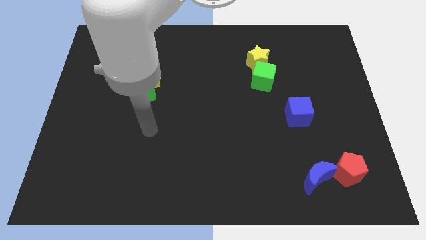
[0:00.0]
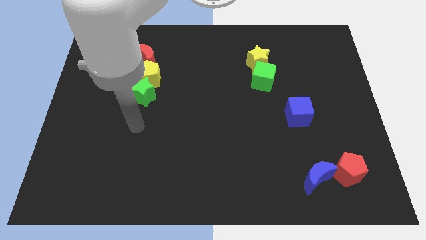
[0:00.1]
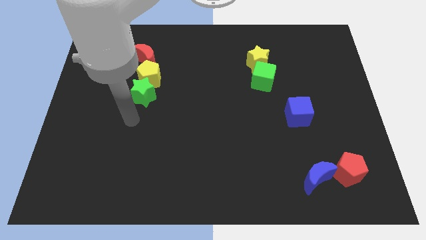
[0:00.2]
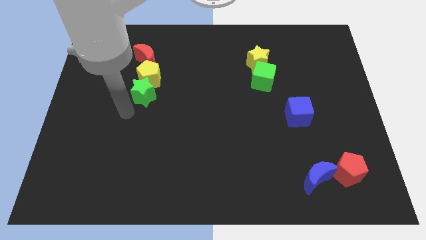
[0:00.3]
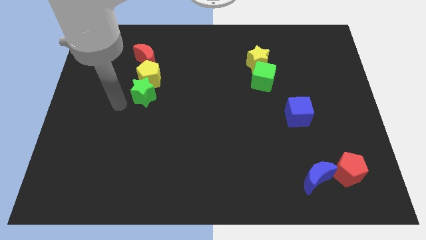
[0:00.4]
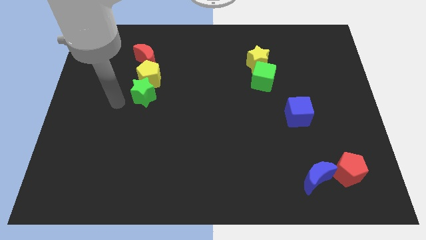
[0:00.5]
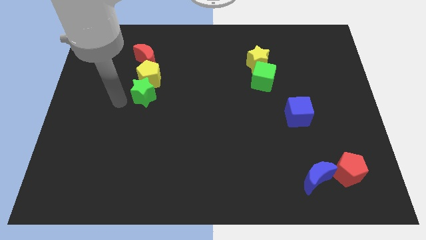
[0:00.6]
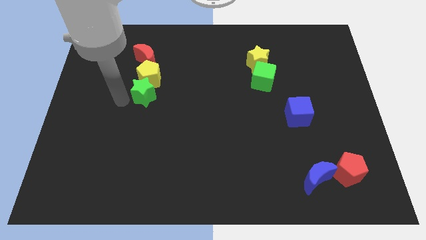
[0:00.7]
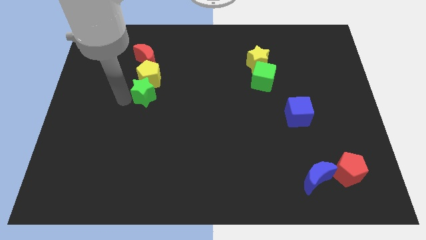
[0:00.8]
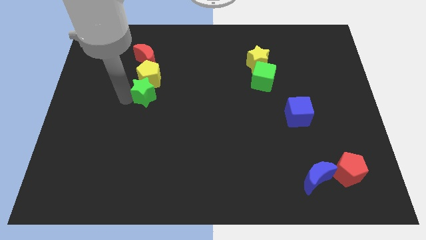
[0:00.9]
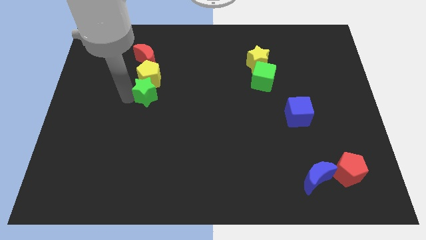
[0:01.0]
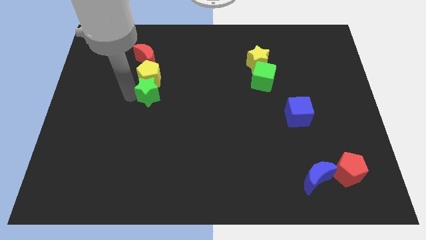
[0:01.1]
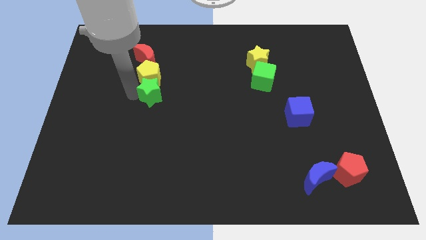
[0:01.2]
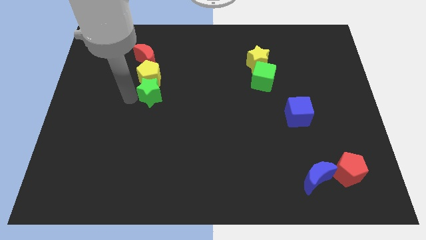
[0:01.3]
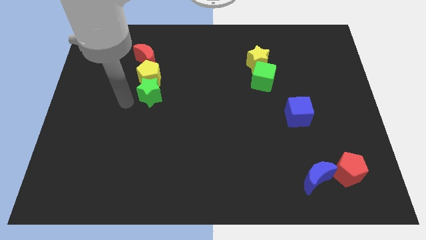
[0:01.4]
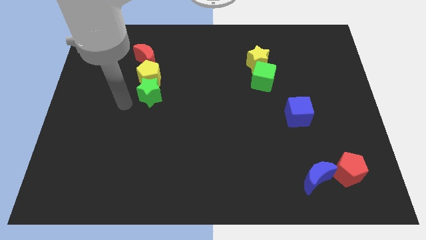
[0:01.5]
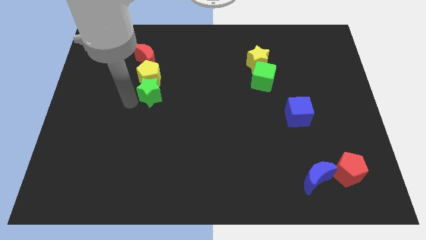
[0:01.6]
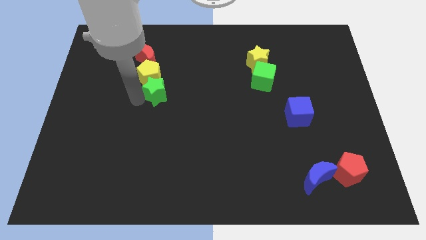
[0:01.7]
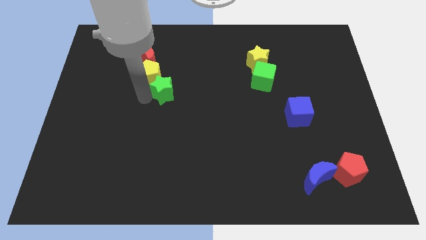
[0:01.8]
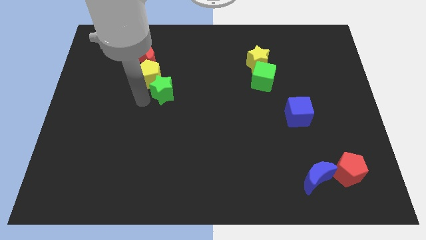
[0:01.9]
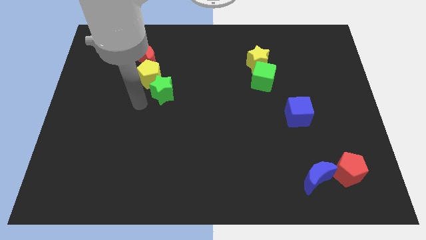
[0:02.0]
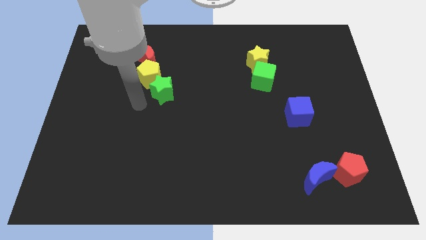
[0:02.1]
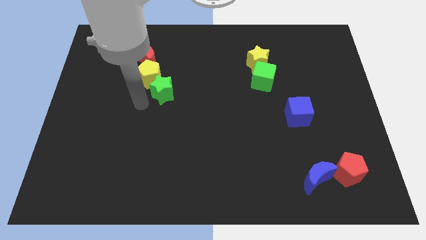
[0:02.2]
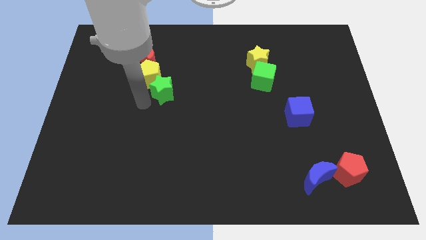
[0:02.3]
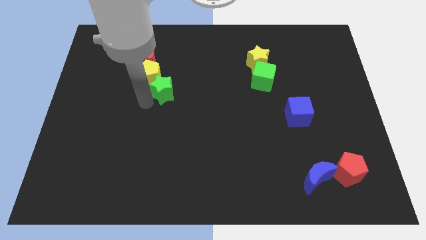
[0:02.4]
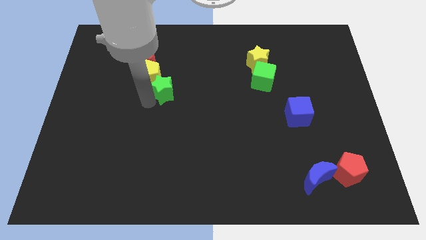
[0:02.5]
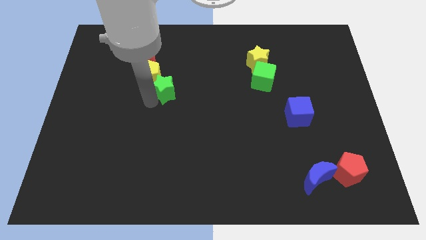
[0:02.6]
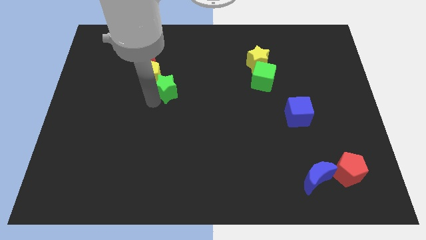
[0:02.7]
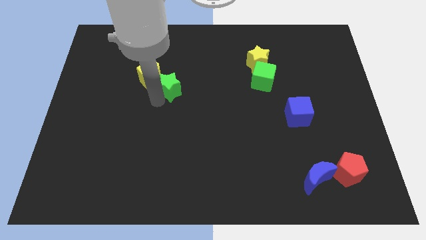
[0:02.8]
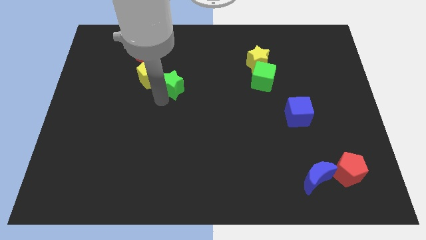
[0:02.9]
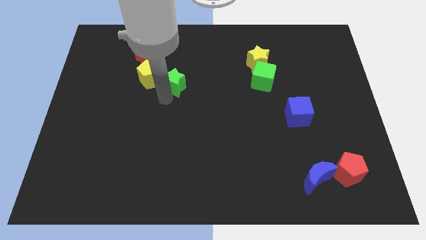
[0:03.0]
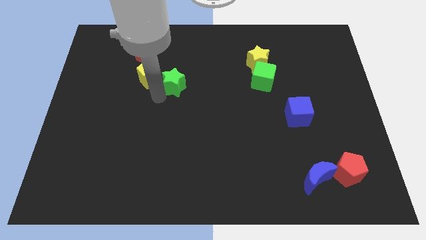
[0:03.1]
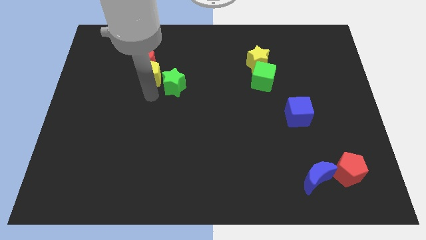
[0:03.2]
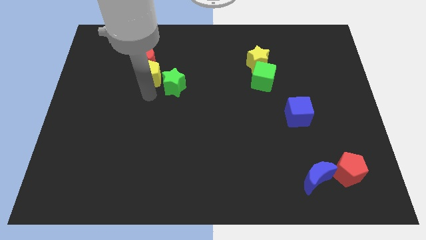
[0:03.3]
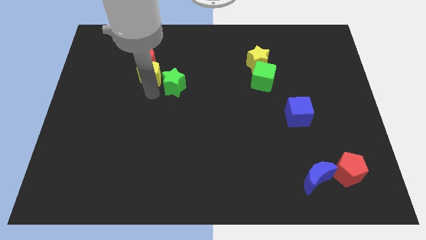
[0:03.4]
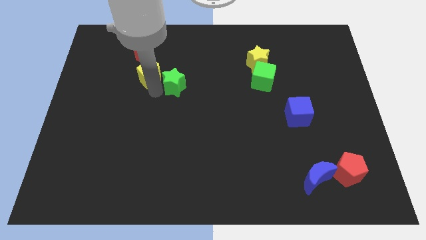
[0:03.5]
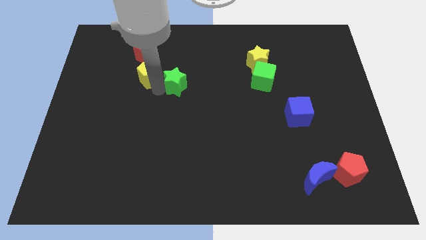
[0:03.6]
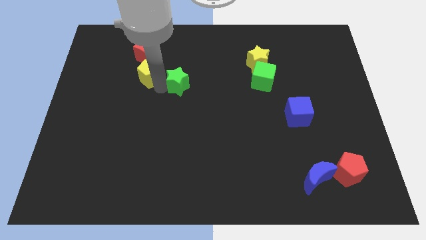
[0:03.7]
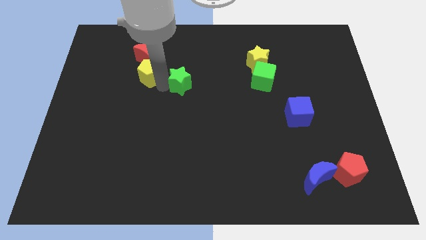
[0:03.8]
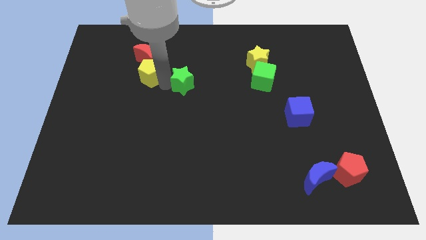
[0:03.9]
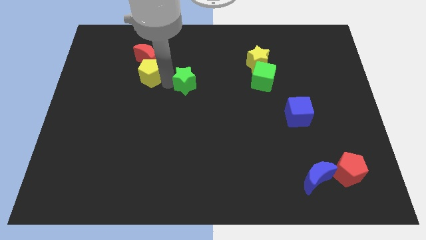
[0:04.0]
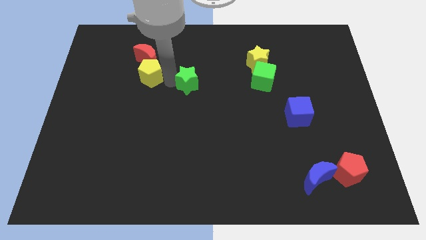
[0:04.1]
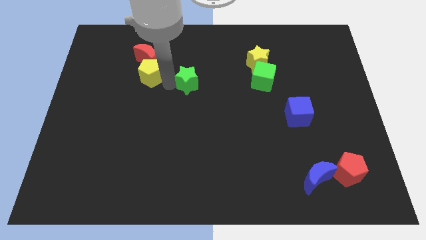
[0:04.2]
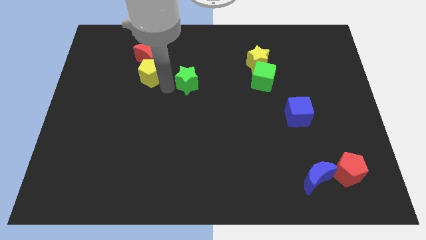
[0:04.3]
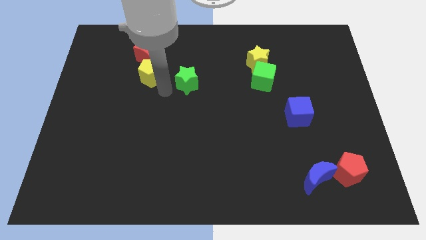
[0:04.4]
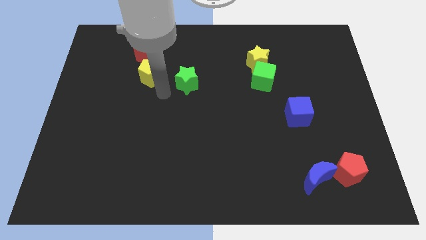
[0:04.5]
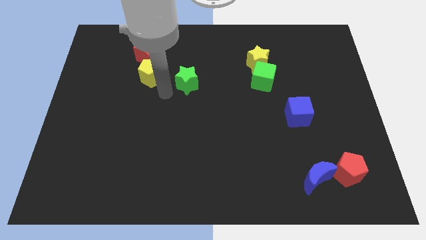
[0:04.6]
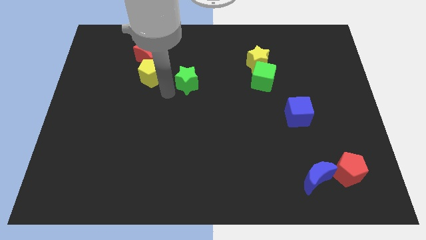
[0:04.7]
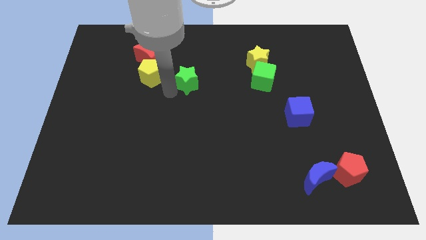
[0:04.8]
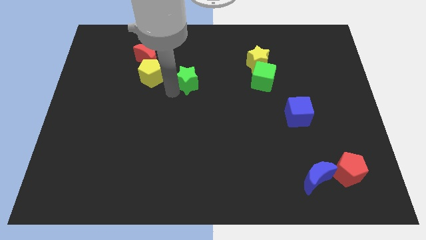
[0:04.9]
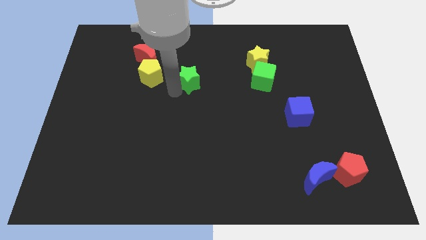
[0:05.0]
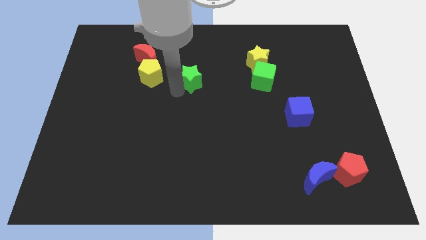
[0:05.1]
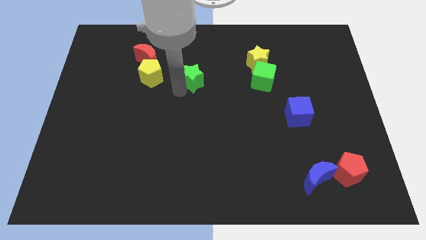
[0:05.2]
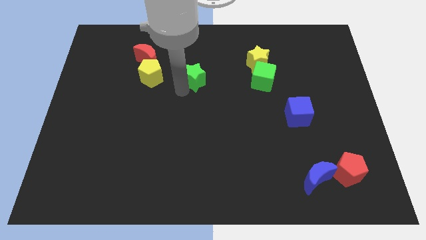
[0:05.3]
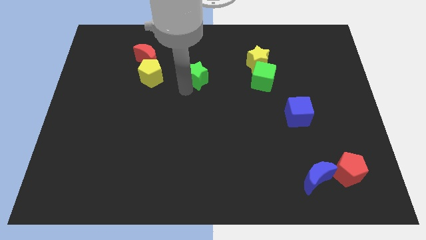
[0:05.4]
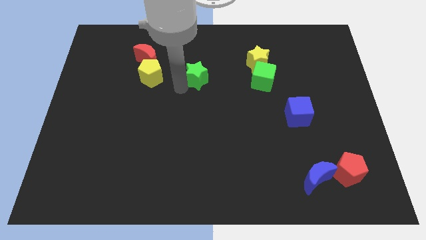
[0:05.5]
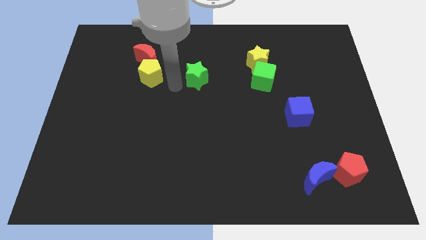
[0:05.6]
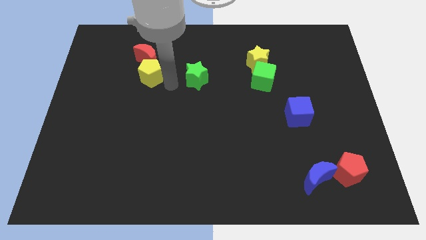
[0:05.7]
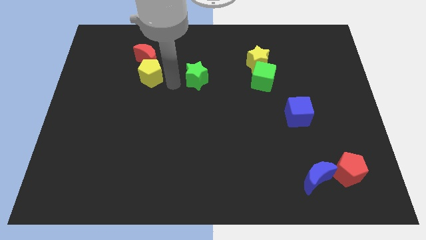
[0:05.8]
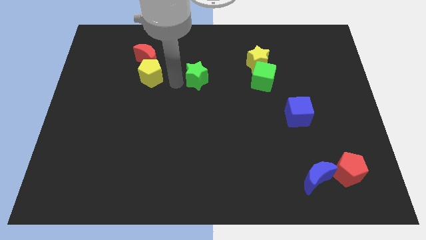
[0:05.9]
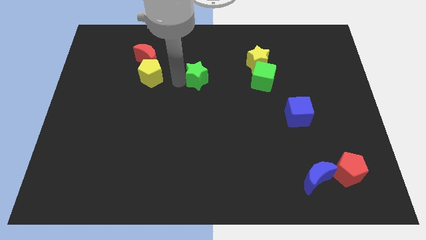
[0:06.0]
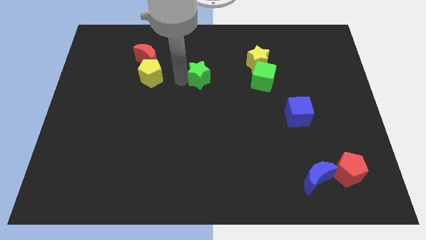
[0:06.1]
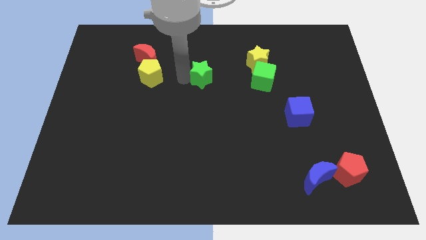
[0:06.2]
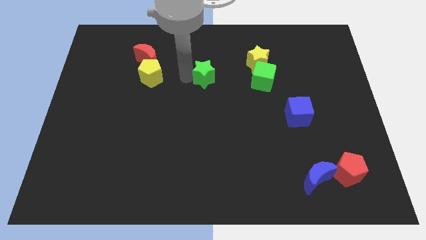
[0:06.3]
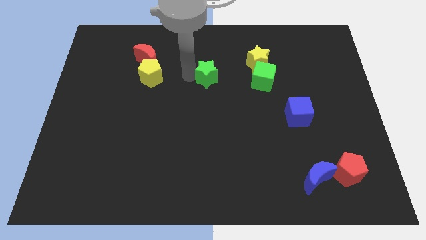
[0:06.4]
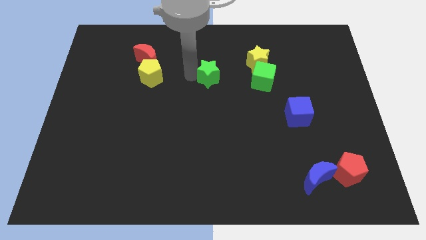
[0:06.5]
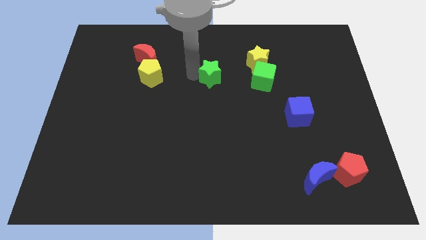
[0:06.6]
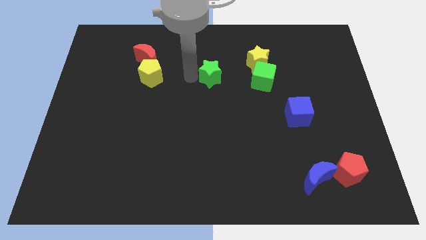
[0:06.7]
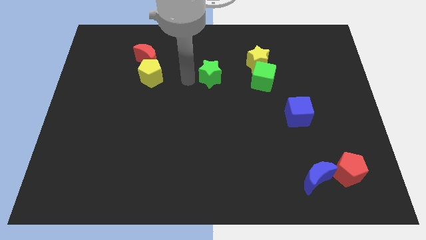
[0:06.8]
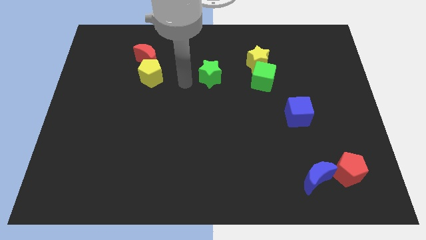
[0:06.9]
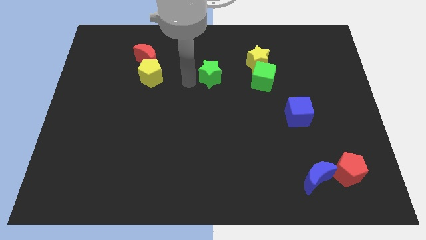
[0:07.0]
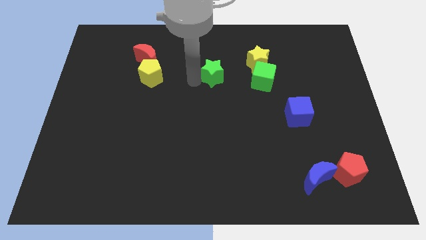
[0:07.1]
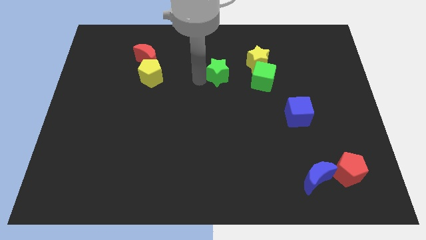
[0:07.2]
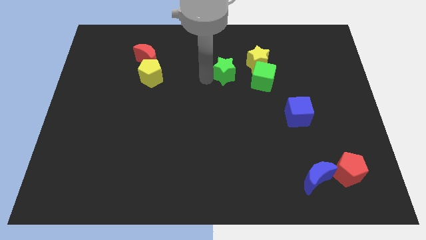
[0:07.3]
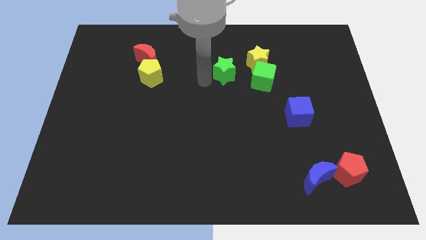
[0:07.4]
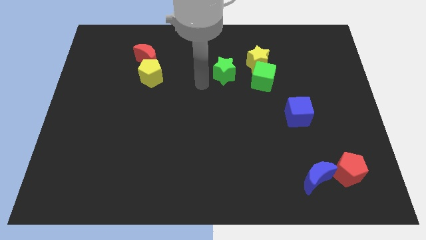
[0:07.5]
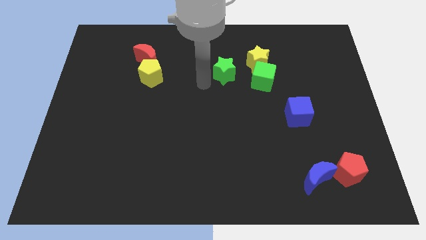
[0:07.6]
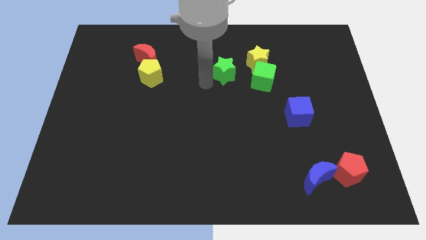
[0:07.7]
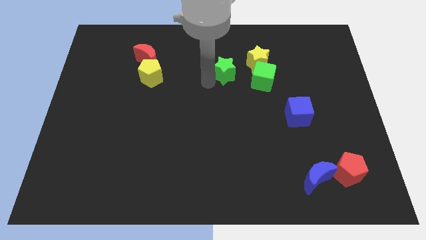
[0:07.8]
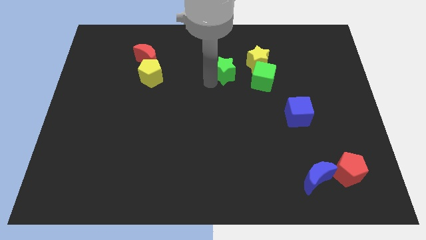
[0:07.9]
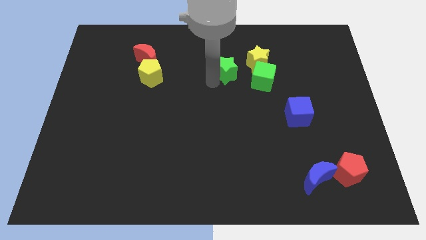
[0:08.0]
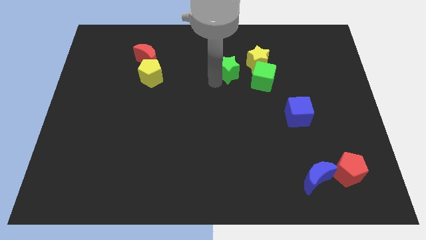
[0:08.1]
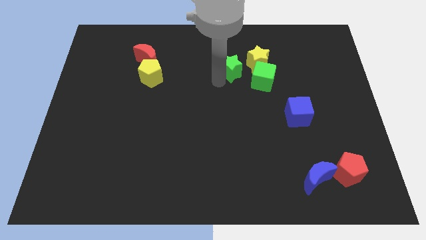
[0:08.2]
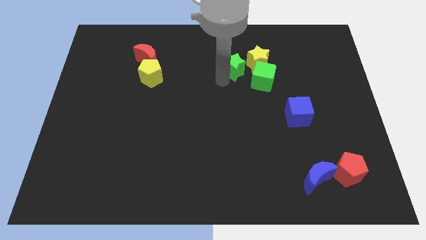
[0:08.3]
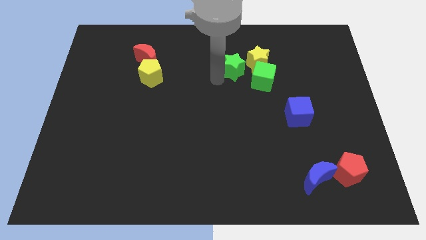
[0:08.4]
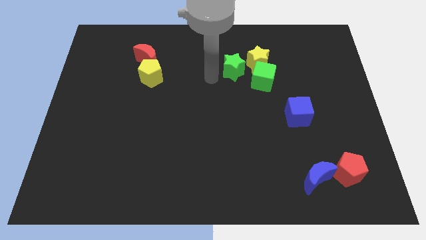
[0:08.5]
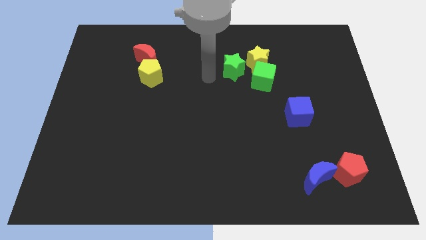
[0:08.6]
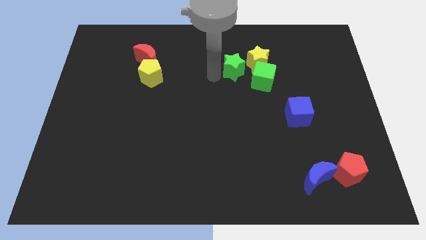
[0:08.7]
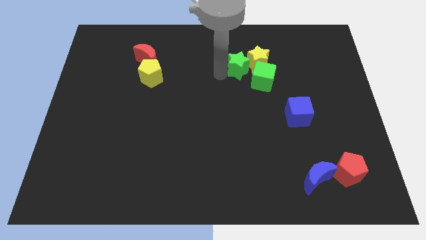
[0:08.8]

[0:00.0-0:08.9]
push the green star close to the yellow star
